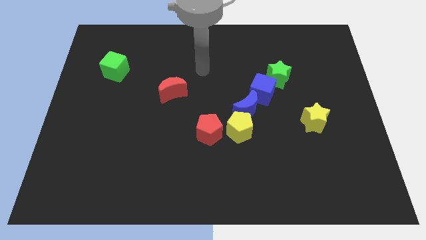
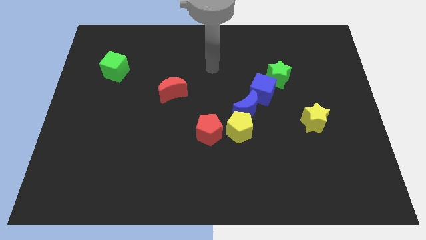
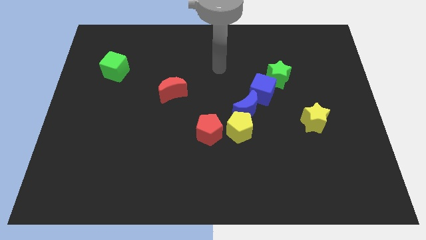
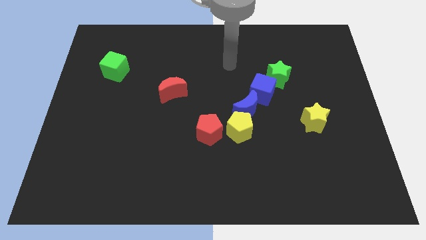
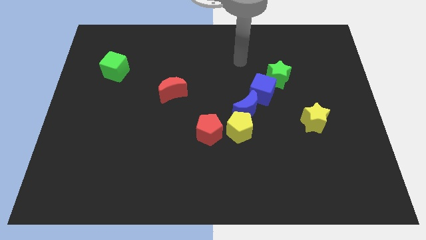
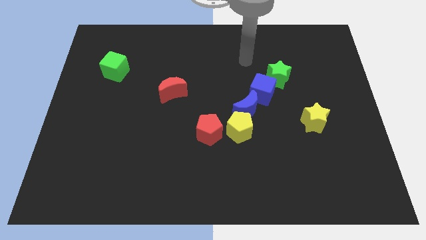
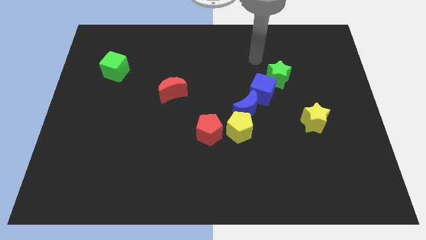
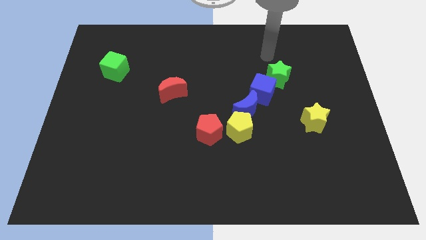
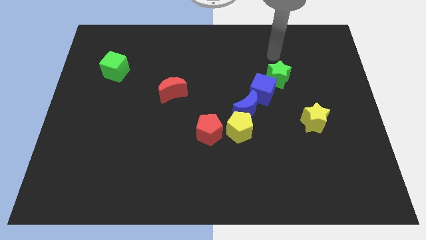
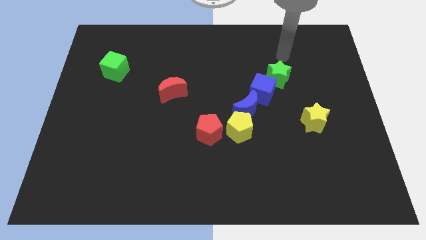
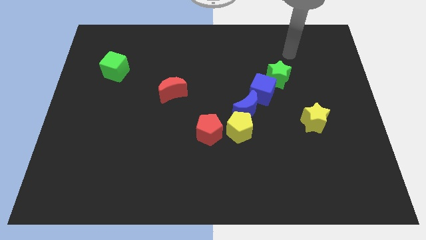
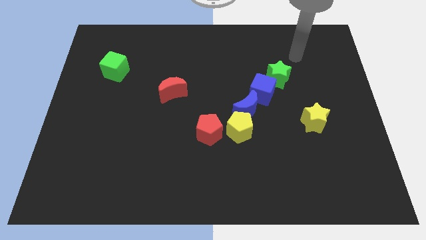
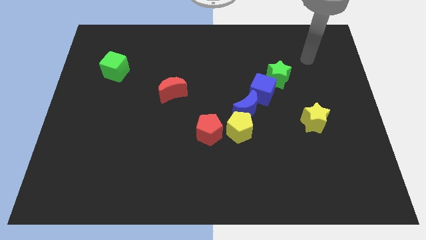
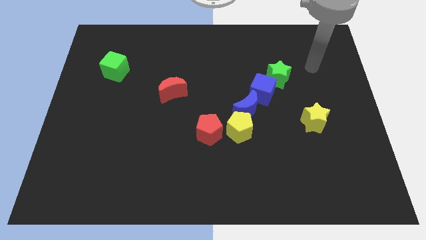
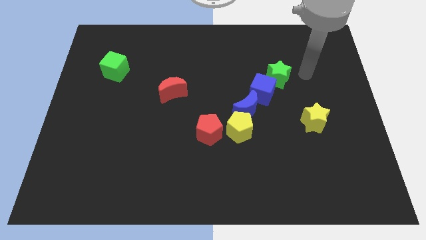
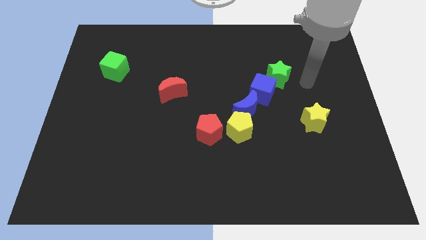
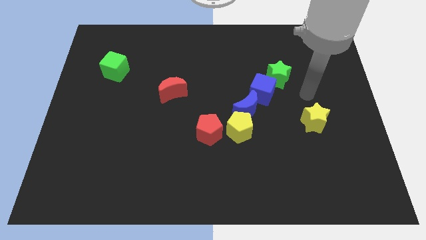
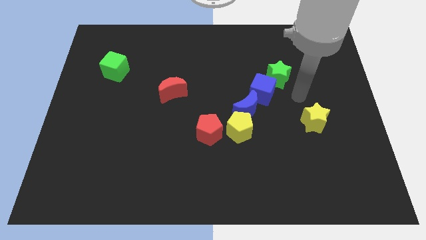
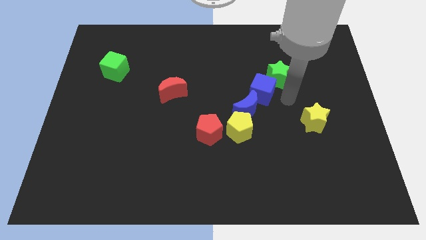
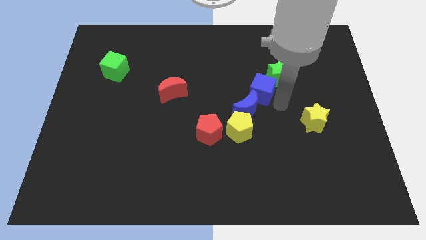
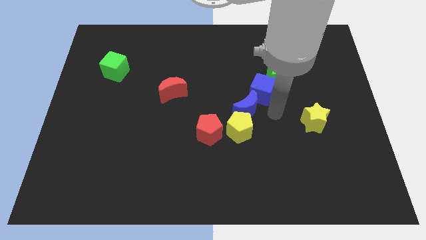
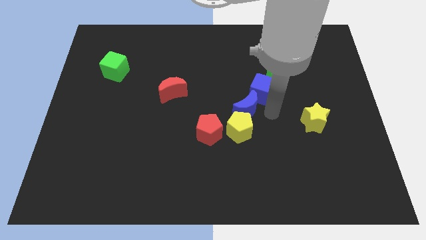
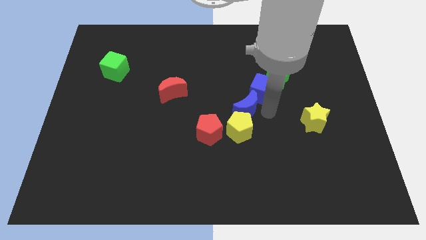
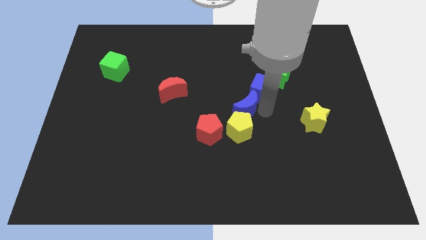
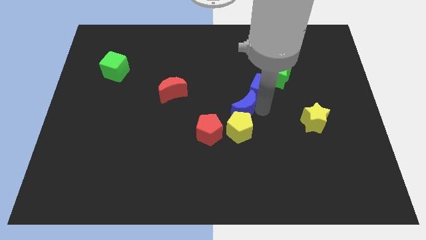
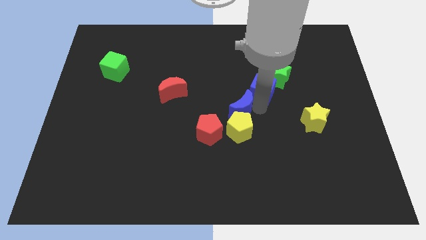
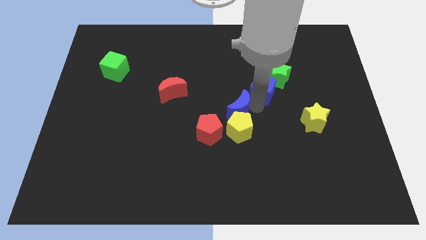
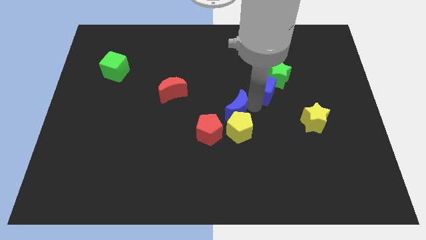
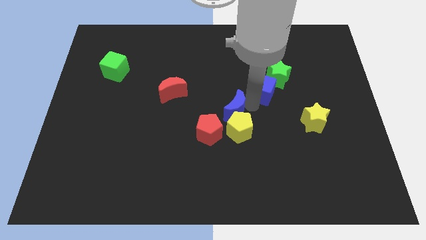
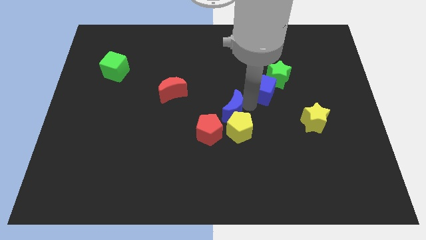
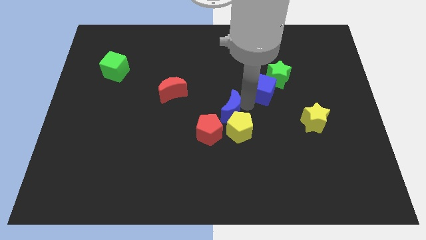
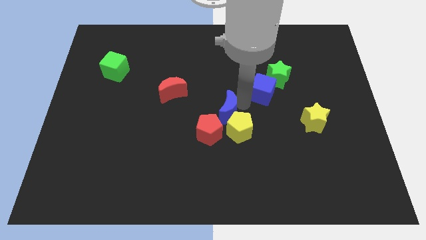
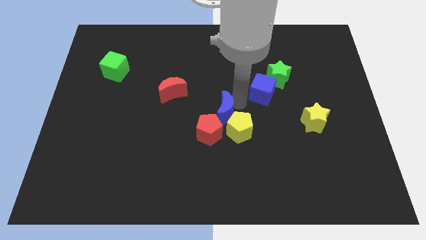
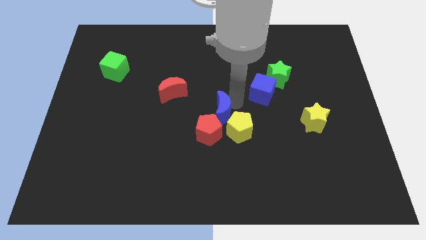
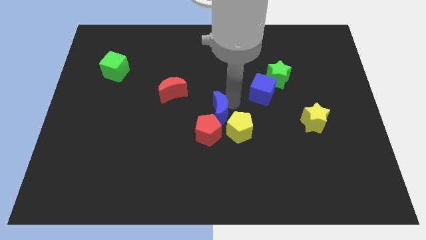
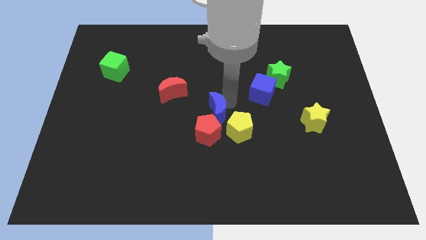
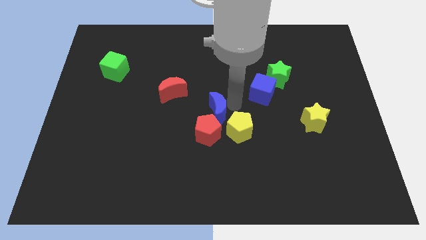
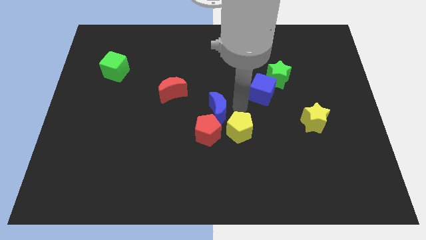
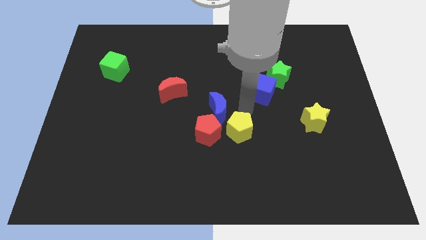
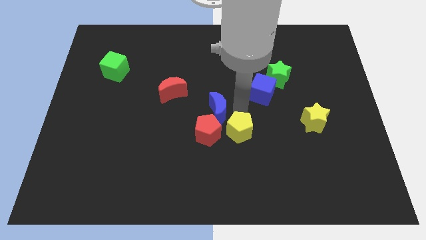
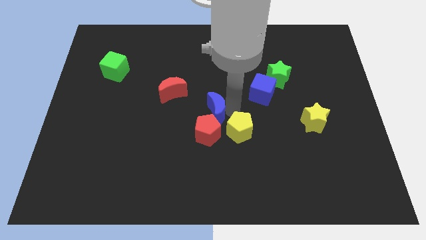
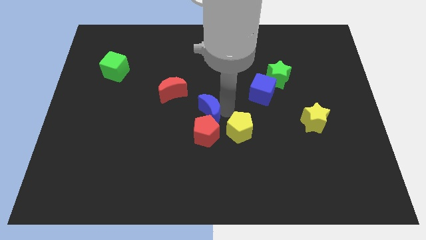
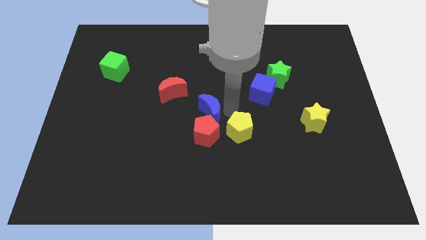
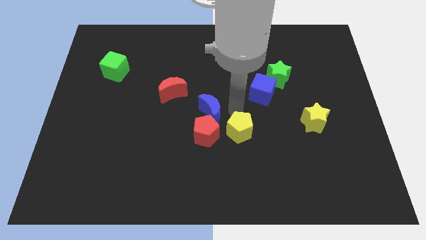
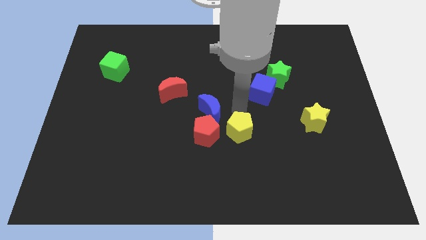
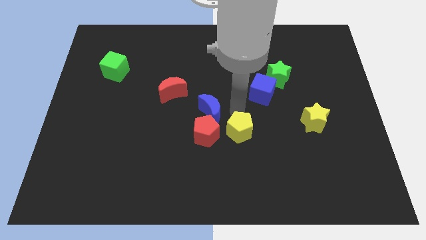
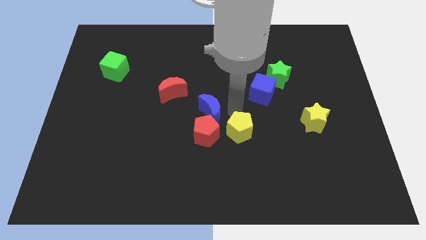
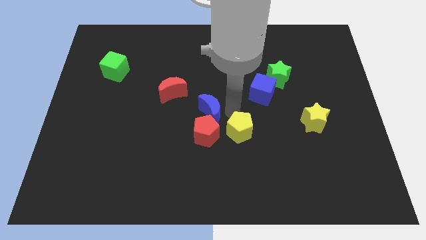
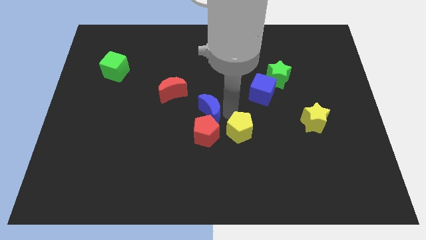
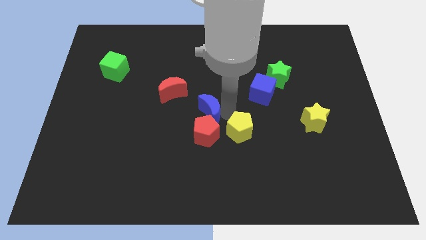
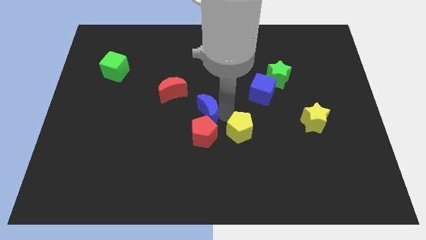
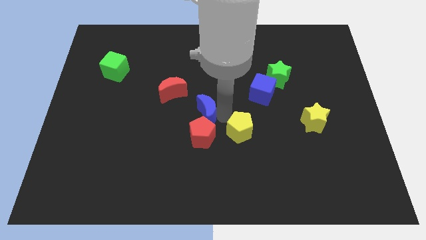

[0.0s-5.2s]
pull the blue moon apart from the yellow pentagon and blue cube

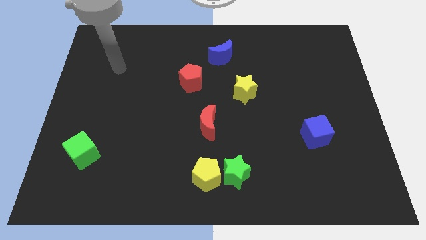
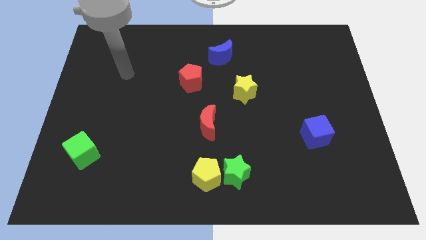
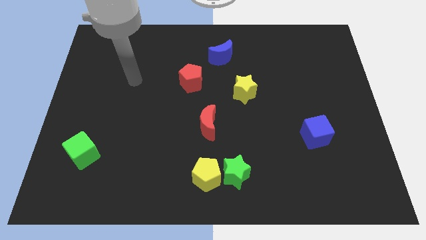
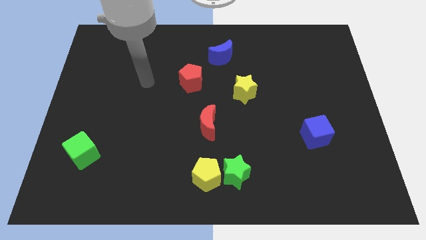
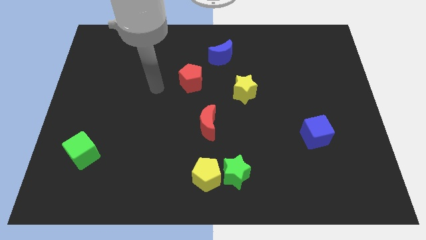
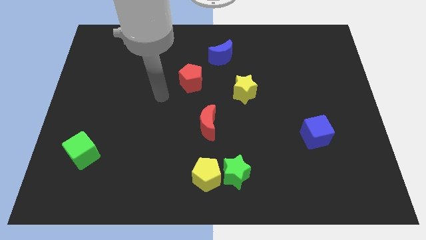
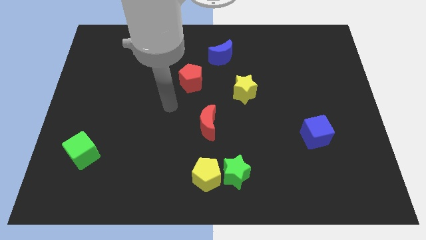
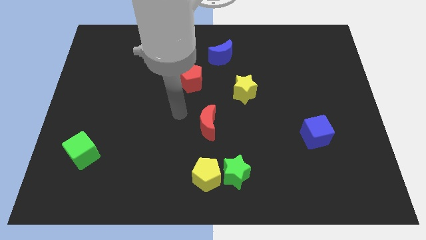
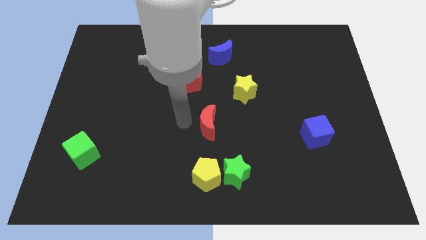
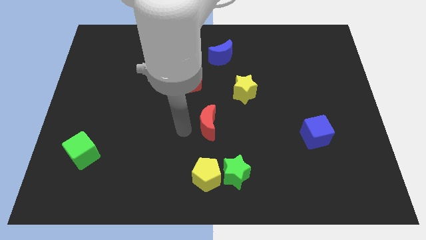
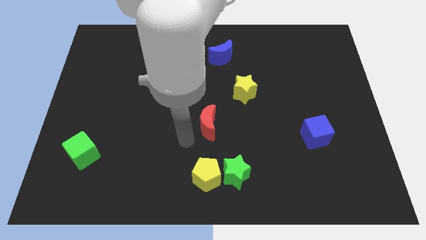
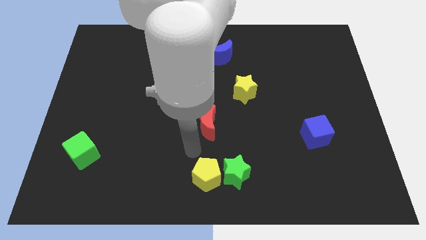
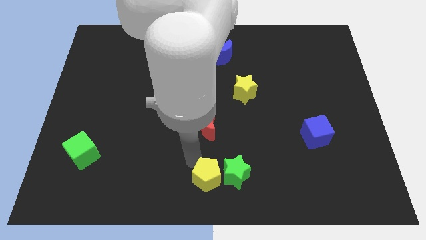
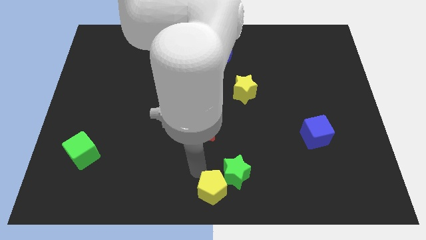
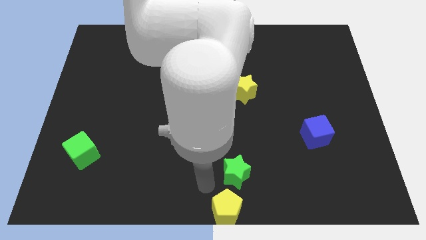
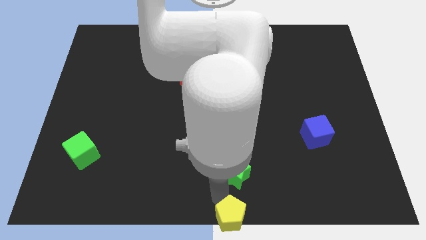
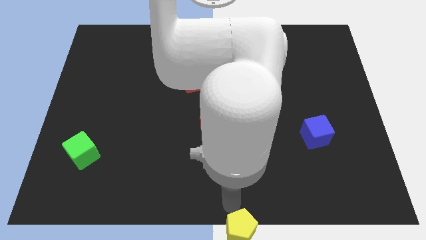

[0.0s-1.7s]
pull the green star apart from the yellow pentagon

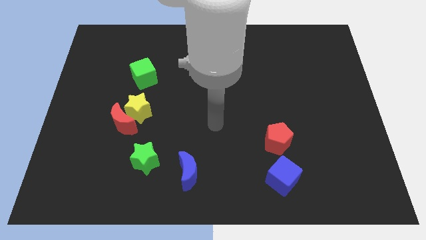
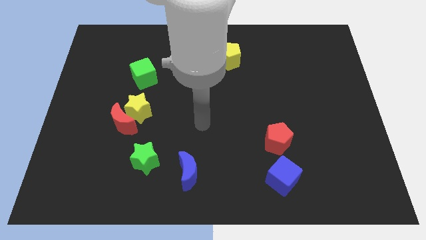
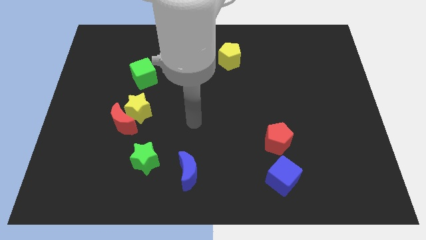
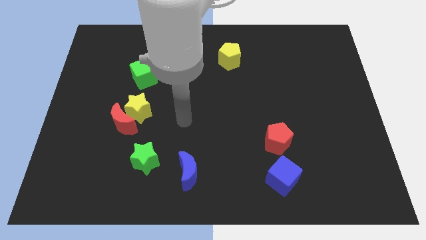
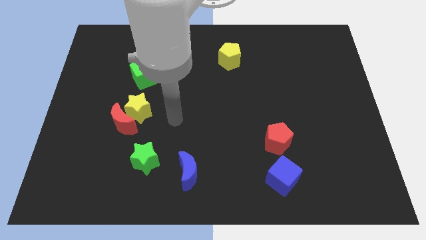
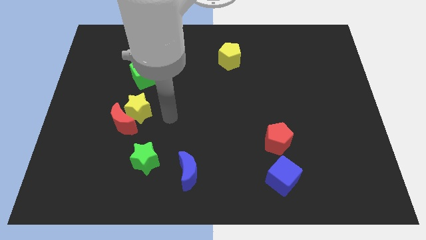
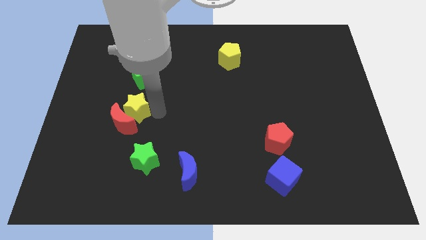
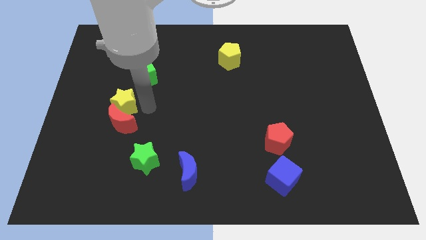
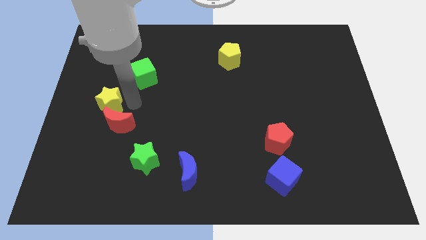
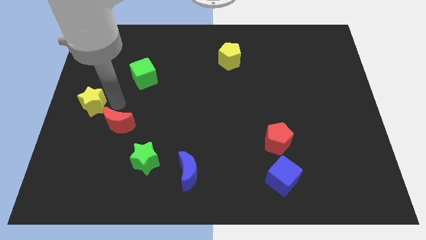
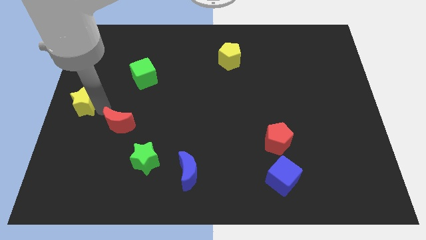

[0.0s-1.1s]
pull the red moon apart from the yellow star

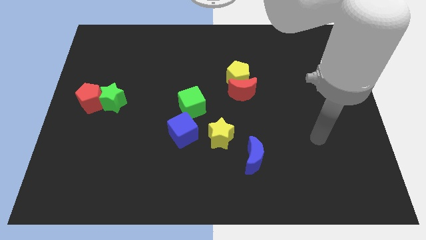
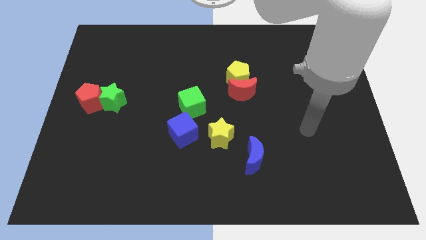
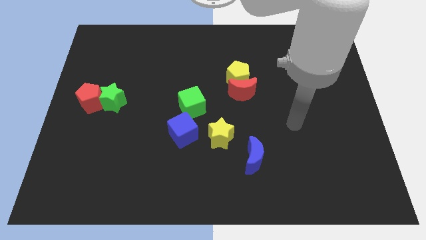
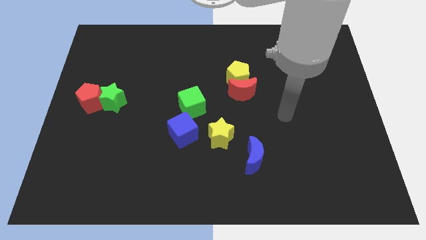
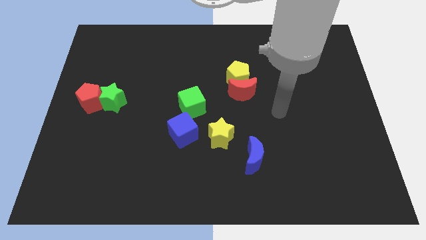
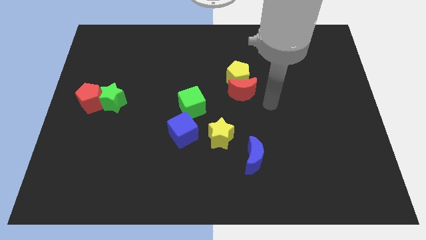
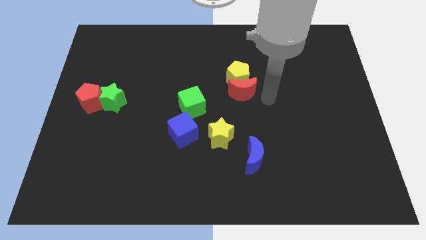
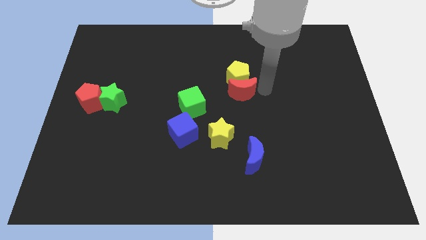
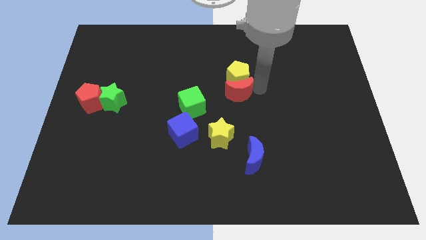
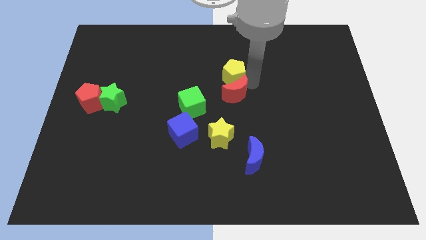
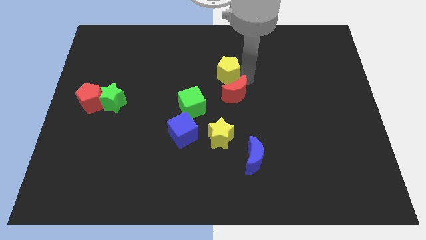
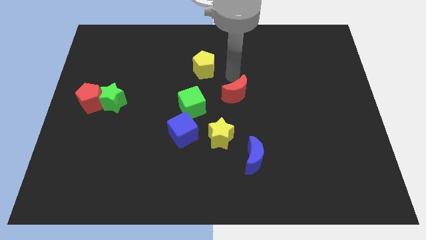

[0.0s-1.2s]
separate the red moon from the yellow pentagon

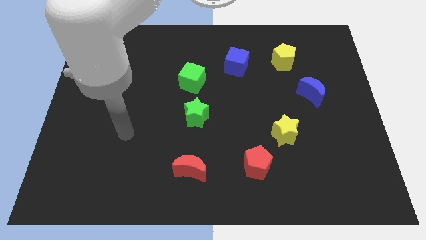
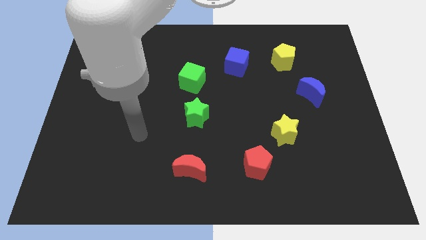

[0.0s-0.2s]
move the red pentagon away from the yellow star
